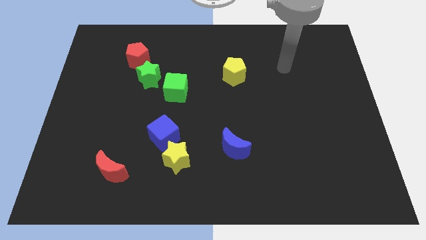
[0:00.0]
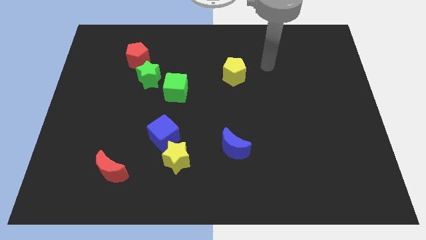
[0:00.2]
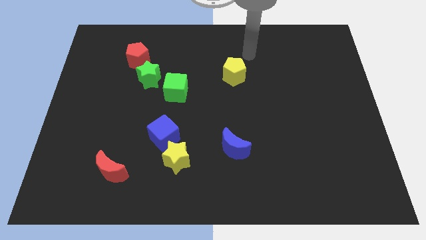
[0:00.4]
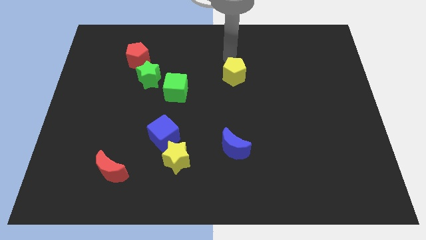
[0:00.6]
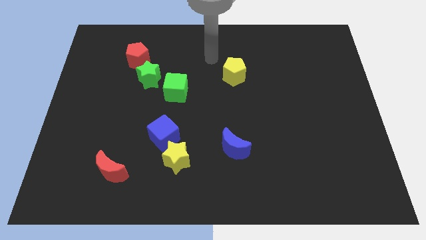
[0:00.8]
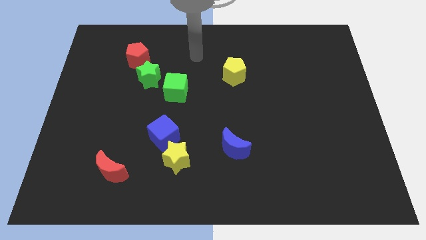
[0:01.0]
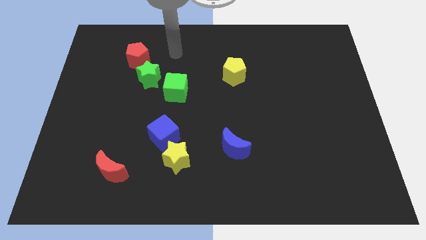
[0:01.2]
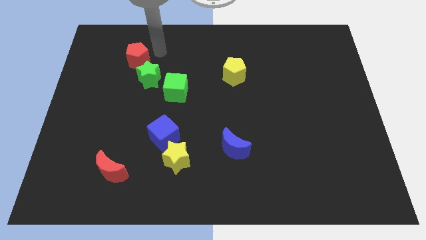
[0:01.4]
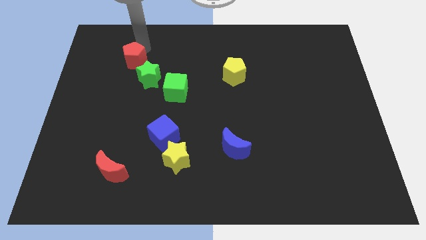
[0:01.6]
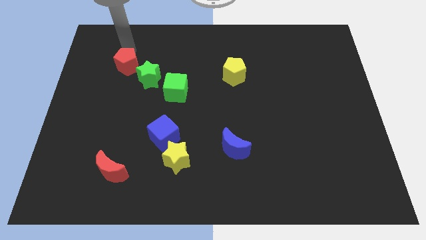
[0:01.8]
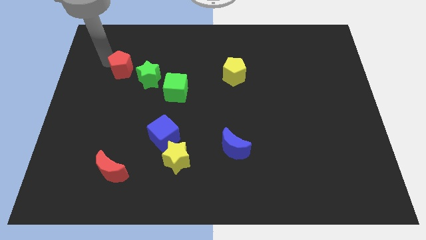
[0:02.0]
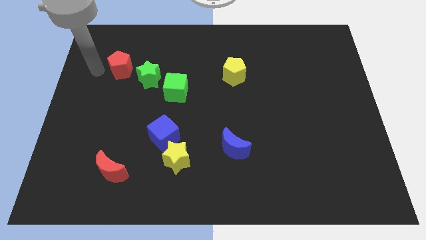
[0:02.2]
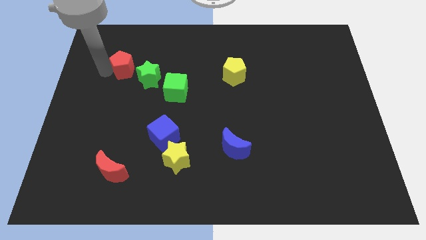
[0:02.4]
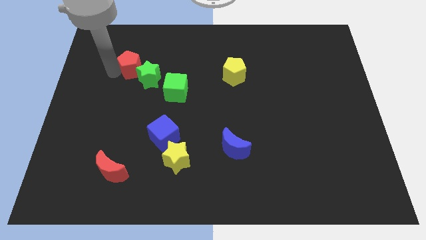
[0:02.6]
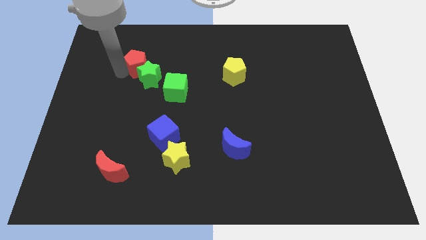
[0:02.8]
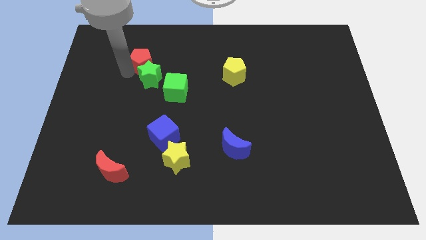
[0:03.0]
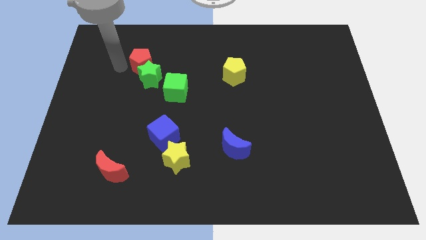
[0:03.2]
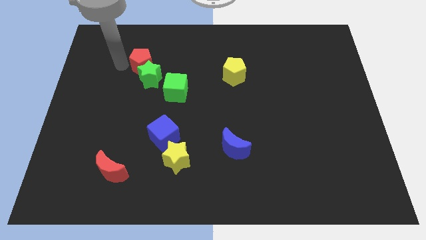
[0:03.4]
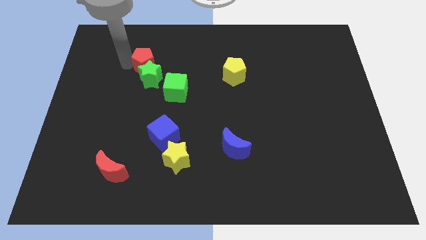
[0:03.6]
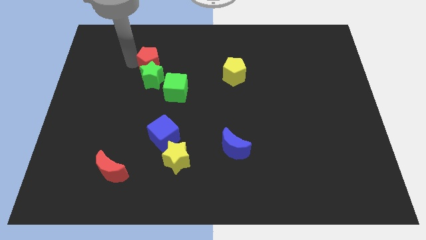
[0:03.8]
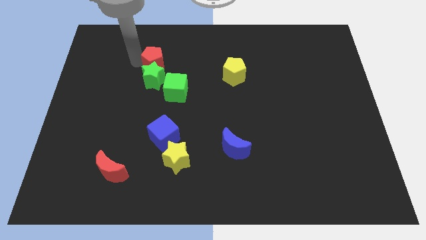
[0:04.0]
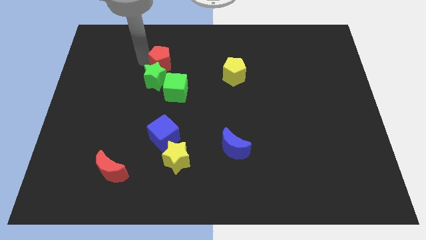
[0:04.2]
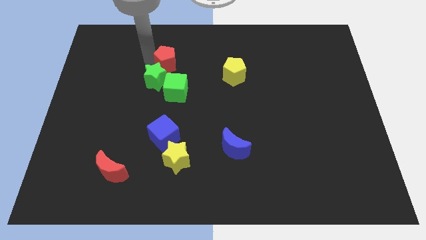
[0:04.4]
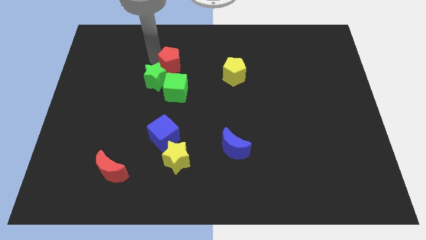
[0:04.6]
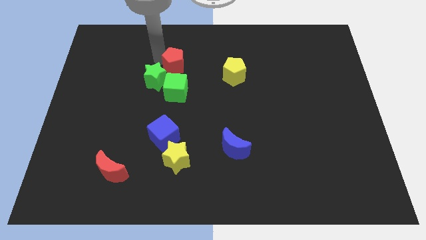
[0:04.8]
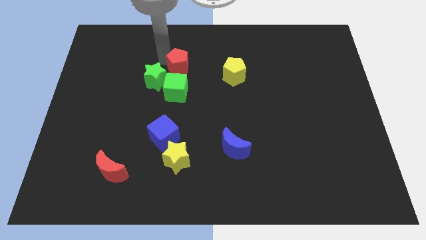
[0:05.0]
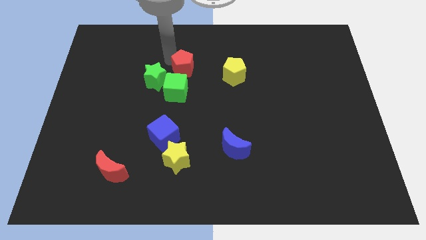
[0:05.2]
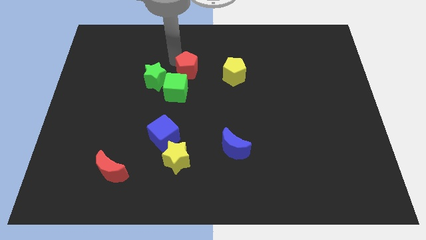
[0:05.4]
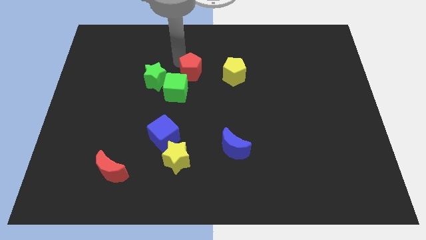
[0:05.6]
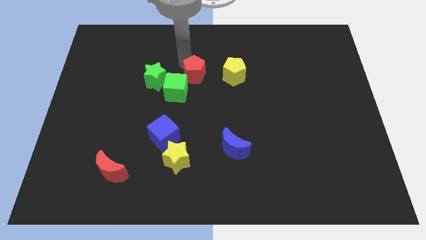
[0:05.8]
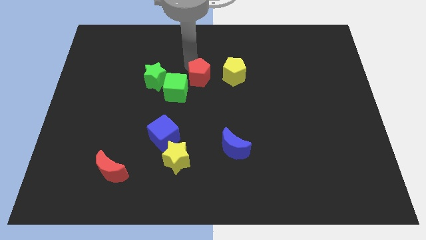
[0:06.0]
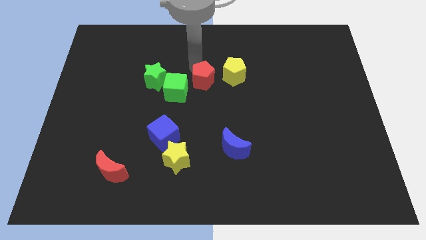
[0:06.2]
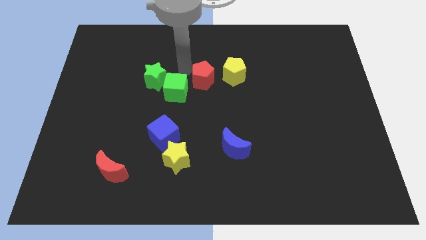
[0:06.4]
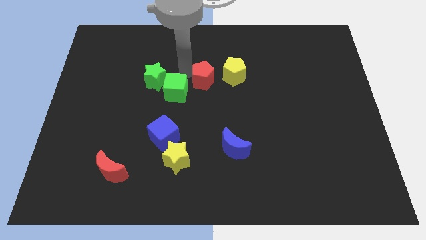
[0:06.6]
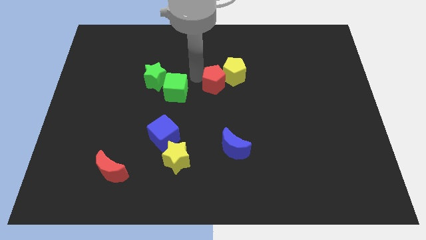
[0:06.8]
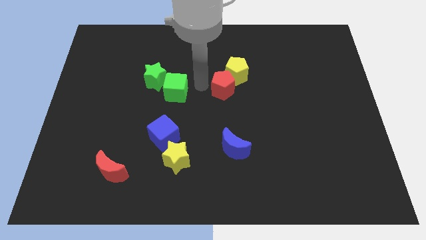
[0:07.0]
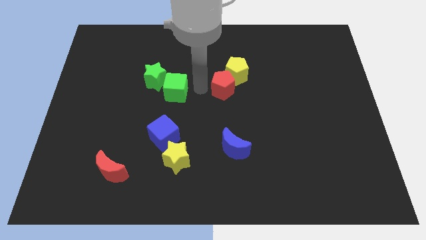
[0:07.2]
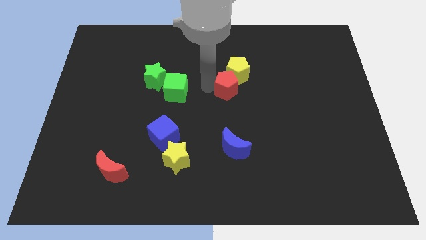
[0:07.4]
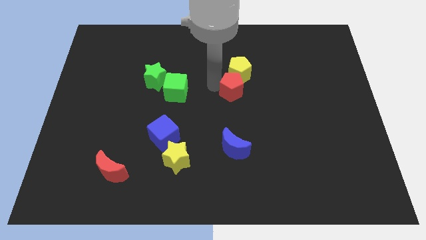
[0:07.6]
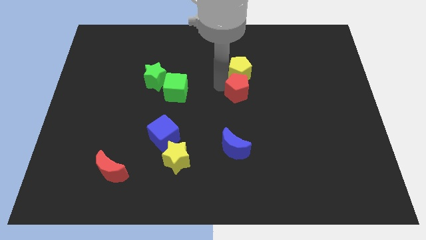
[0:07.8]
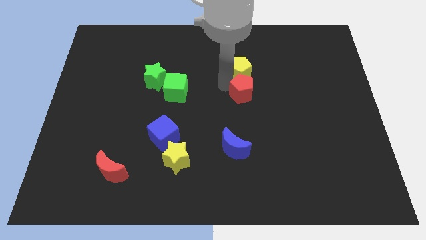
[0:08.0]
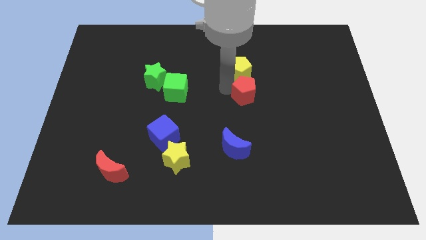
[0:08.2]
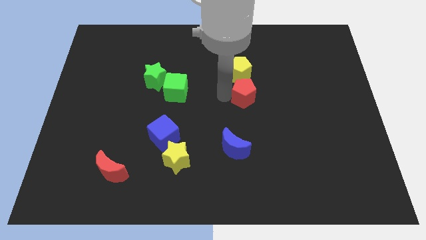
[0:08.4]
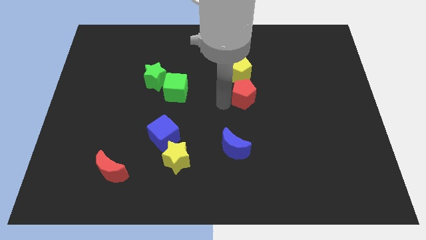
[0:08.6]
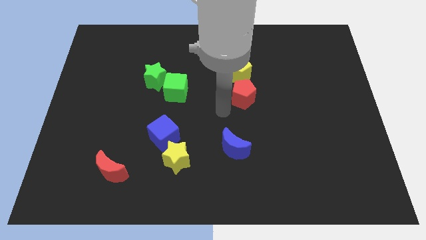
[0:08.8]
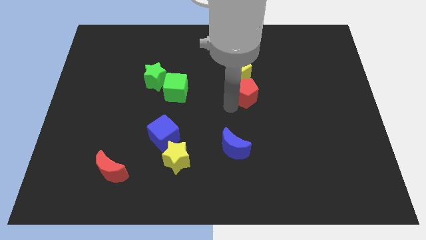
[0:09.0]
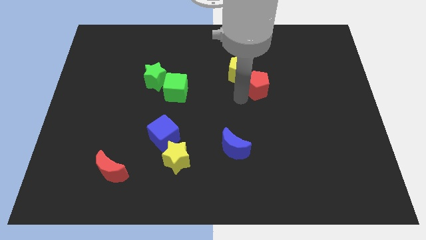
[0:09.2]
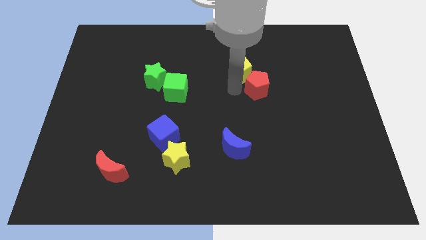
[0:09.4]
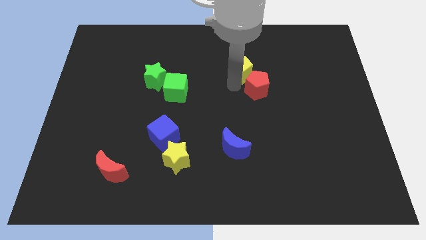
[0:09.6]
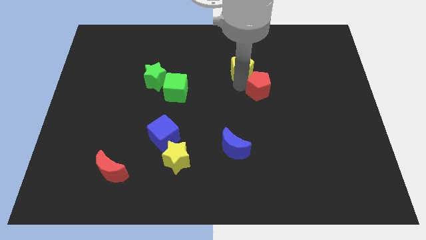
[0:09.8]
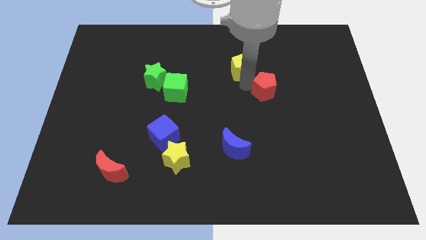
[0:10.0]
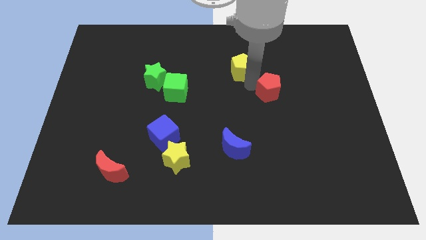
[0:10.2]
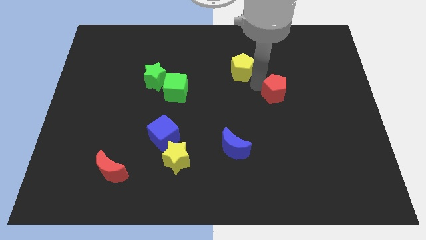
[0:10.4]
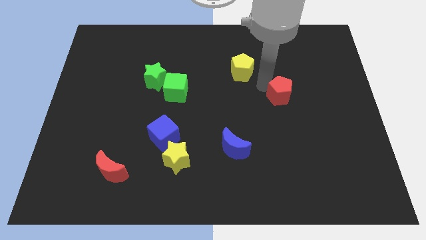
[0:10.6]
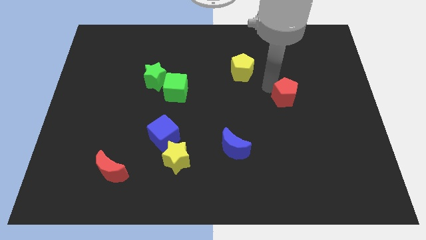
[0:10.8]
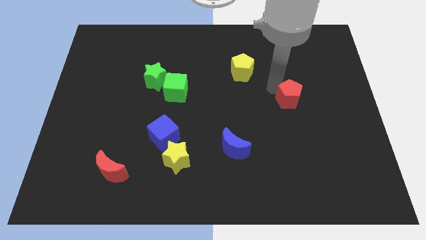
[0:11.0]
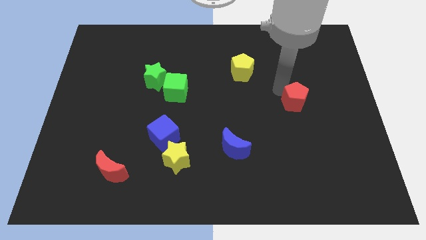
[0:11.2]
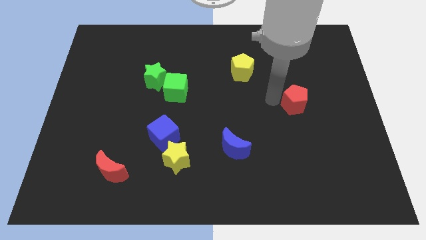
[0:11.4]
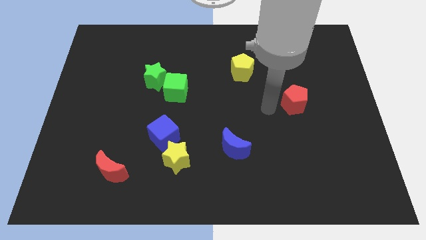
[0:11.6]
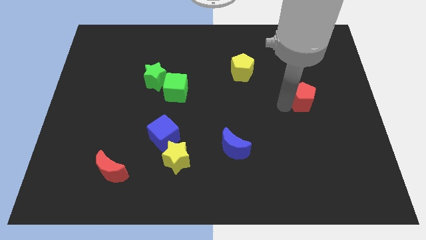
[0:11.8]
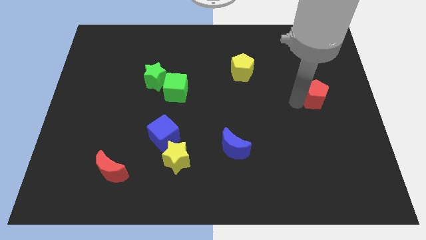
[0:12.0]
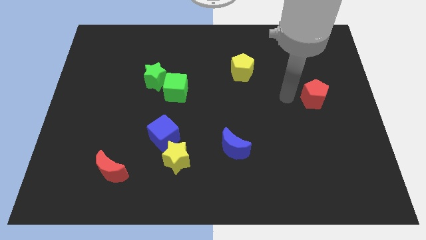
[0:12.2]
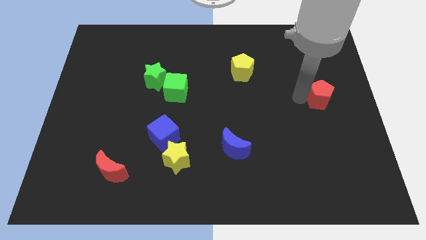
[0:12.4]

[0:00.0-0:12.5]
slide the red pentagon to the right side

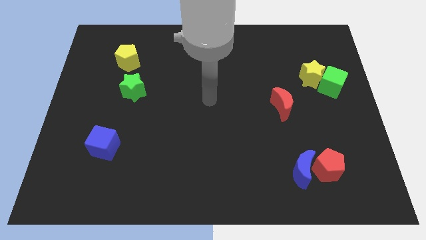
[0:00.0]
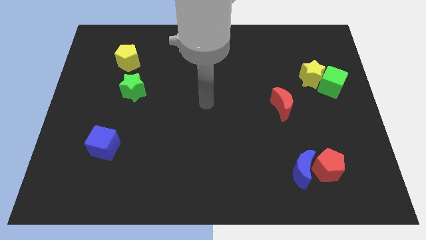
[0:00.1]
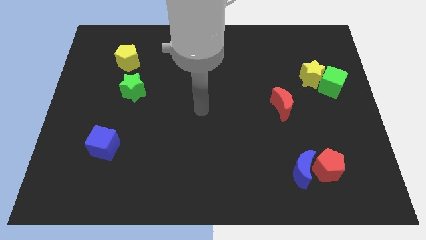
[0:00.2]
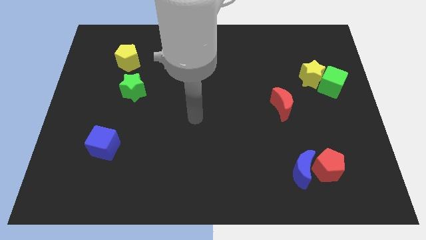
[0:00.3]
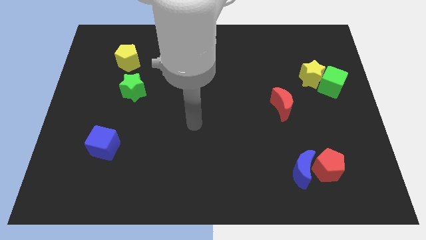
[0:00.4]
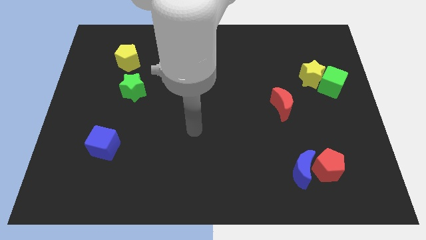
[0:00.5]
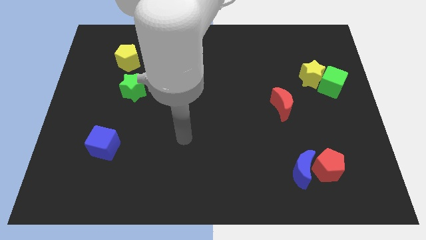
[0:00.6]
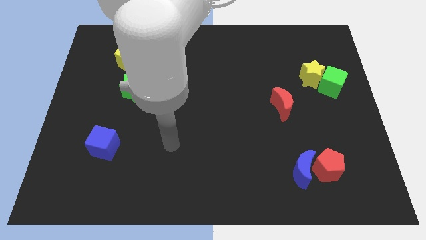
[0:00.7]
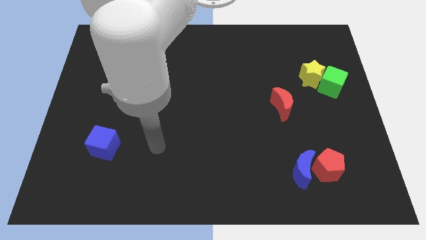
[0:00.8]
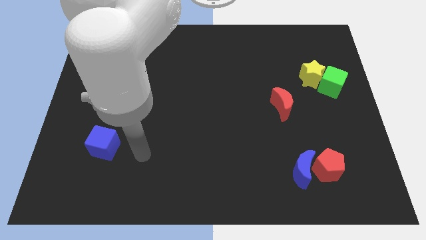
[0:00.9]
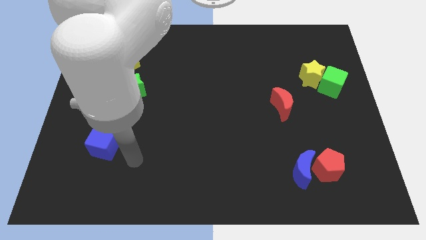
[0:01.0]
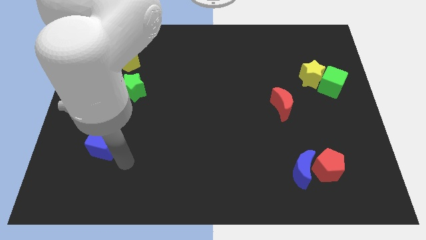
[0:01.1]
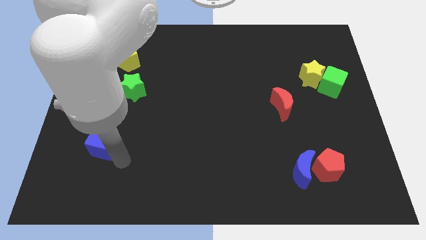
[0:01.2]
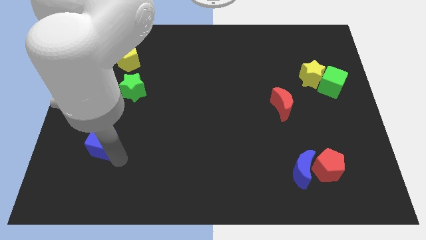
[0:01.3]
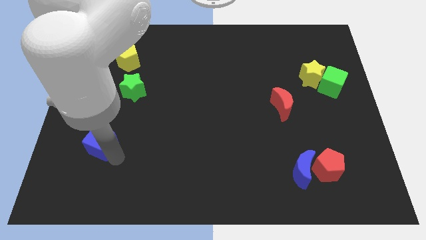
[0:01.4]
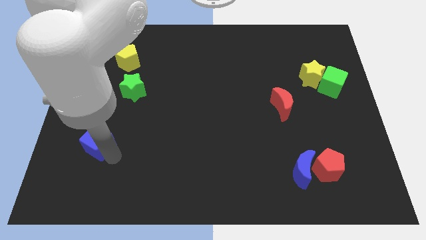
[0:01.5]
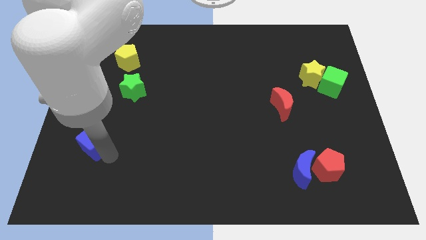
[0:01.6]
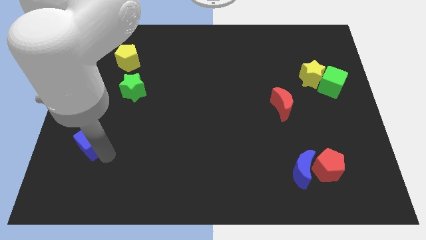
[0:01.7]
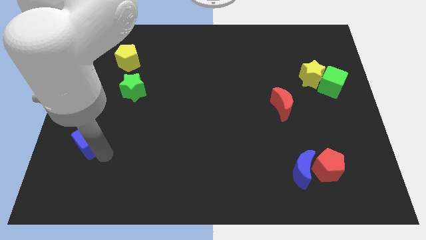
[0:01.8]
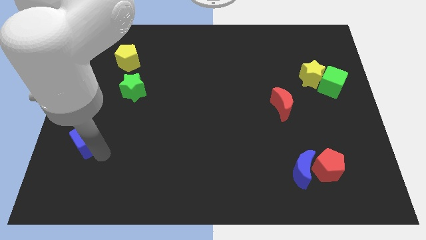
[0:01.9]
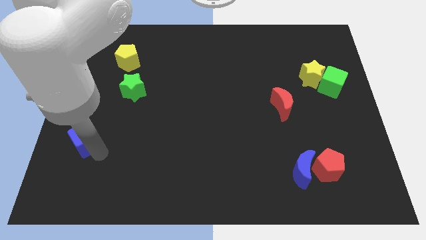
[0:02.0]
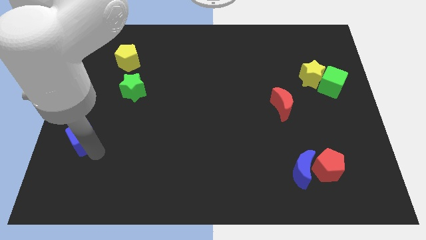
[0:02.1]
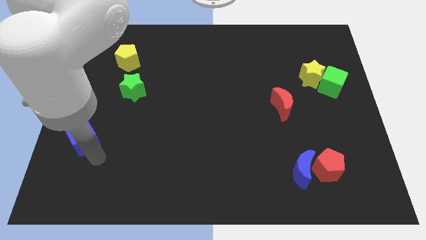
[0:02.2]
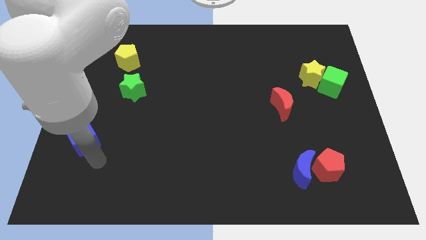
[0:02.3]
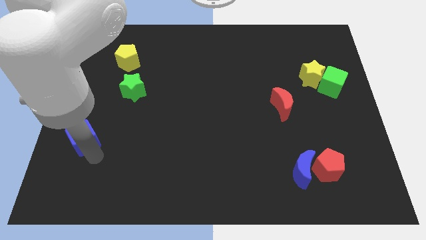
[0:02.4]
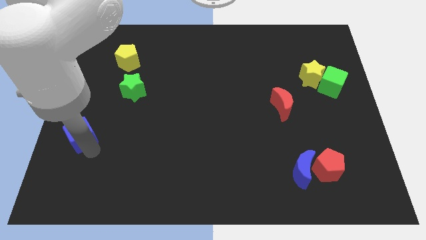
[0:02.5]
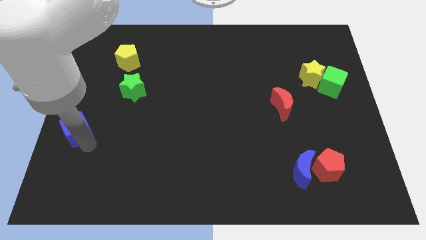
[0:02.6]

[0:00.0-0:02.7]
move the blue cube to the center left
